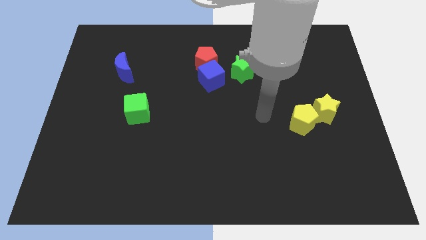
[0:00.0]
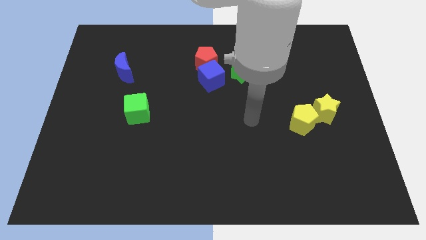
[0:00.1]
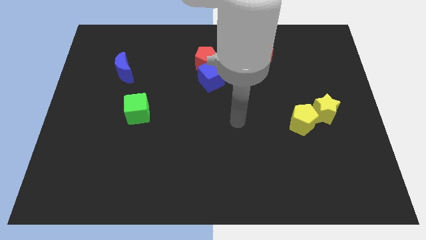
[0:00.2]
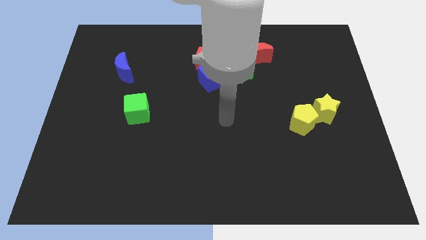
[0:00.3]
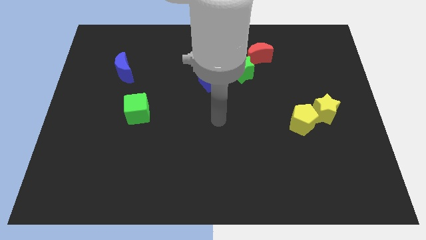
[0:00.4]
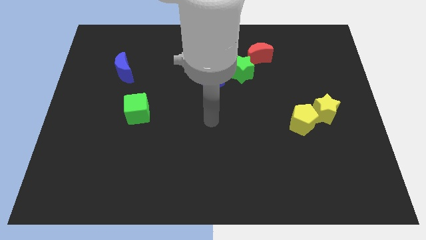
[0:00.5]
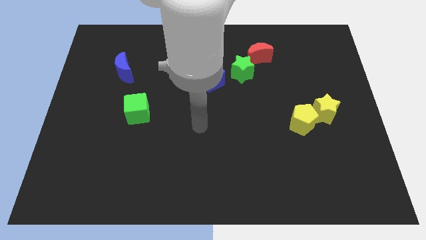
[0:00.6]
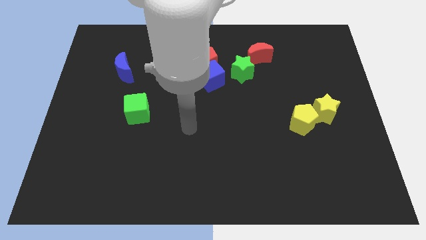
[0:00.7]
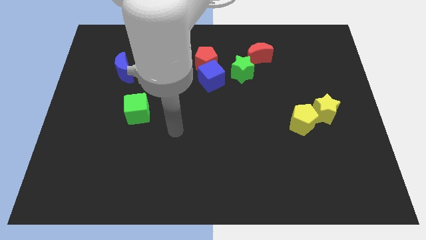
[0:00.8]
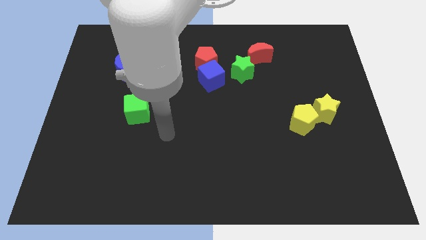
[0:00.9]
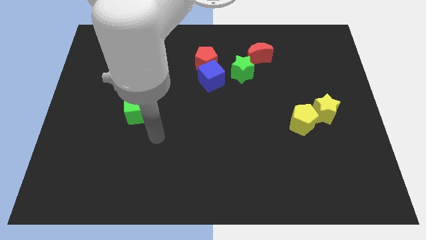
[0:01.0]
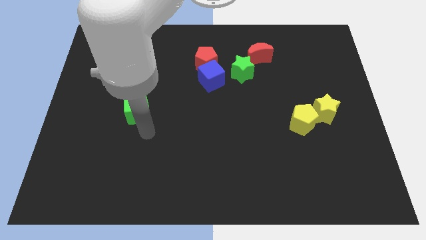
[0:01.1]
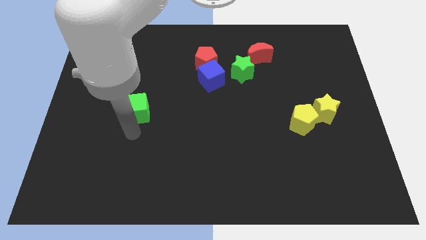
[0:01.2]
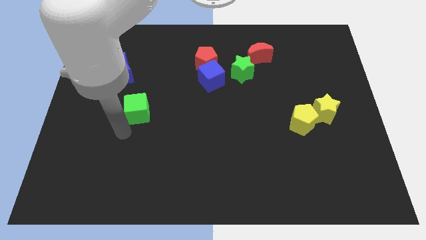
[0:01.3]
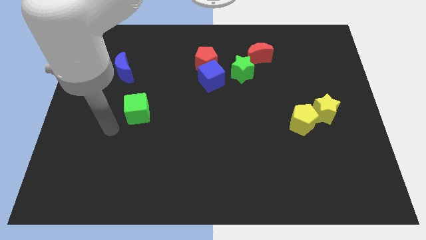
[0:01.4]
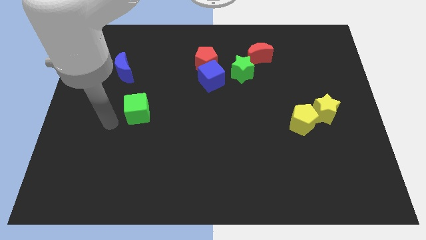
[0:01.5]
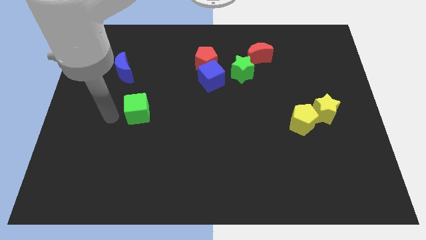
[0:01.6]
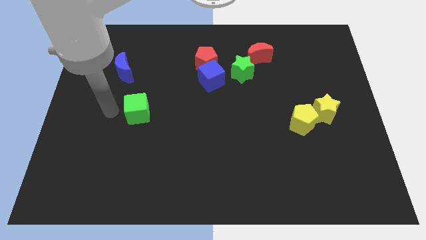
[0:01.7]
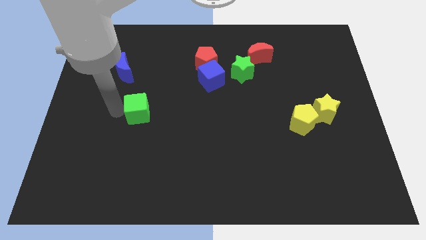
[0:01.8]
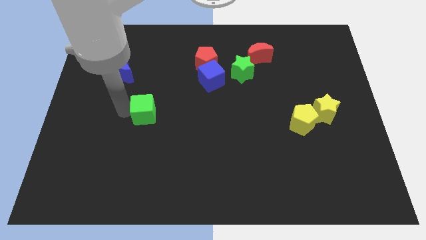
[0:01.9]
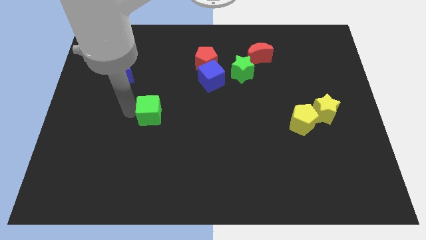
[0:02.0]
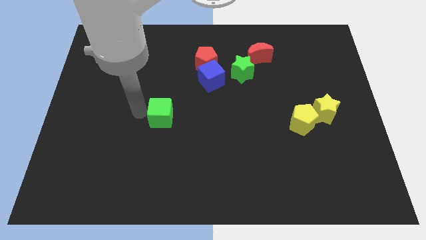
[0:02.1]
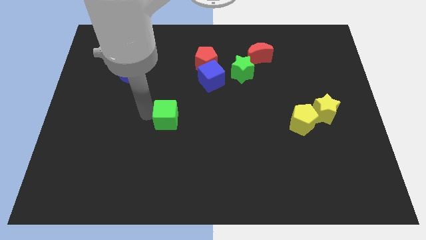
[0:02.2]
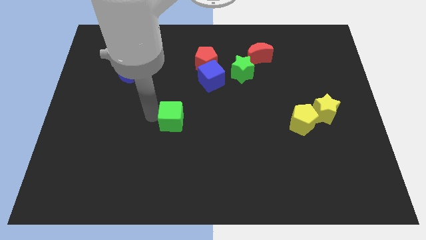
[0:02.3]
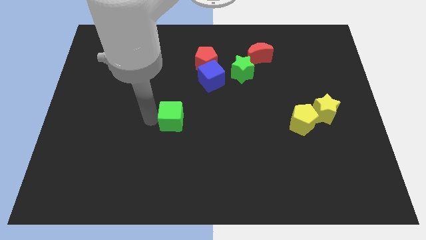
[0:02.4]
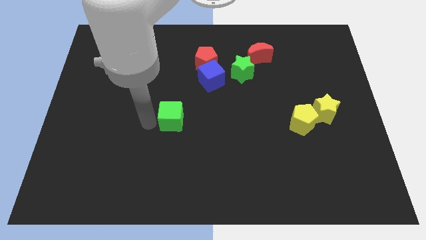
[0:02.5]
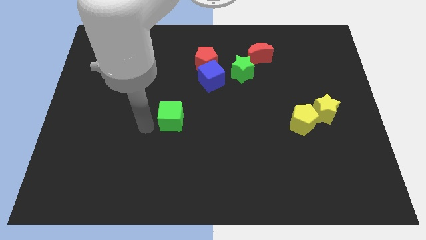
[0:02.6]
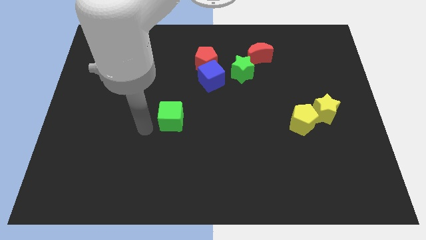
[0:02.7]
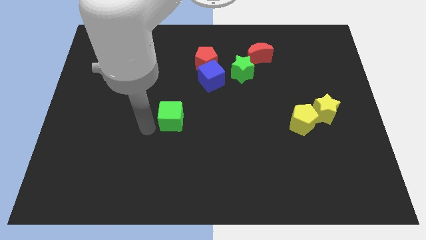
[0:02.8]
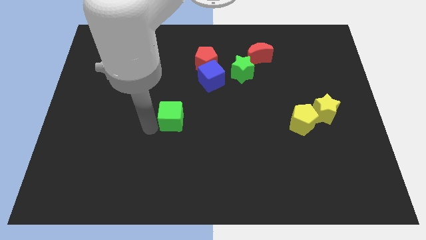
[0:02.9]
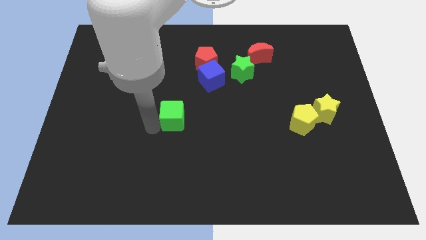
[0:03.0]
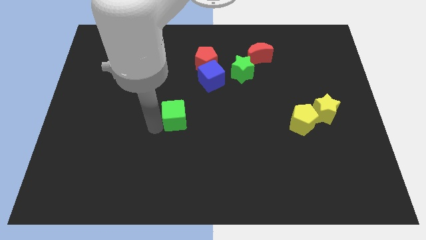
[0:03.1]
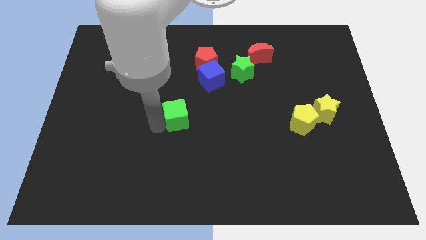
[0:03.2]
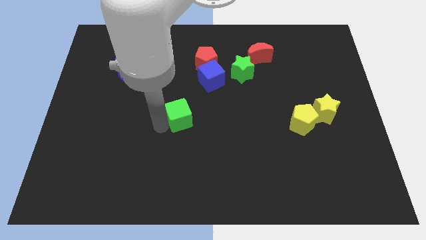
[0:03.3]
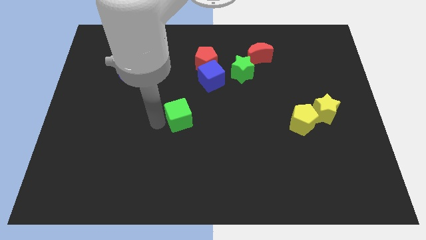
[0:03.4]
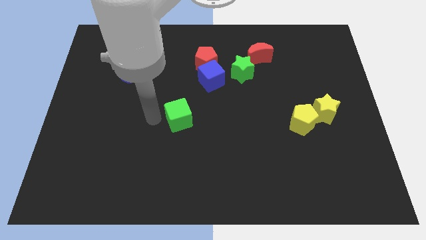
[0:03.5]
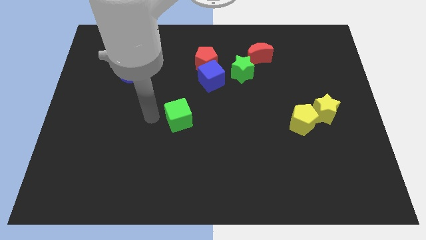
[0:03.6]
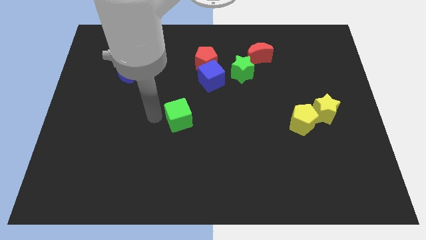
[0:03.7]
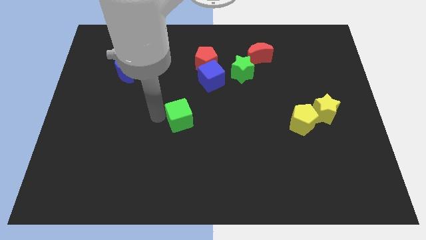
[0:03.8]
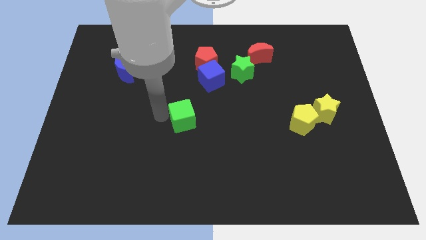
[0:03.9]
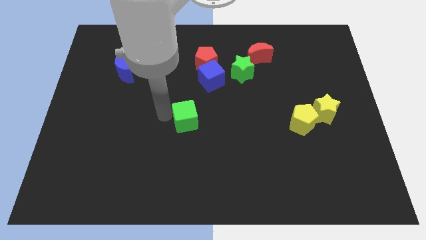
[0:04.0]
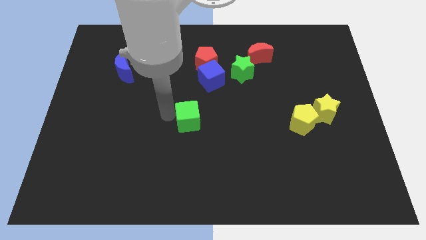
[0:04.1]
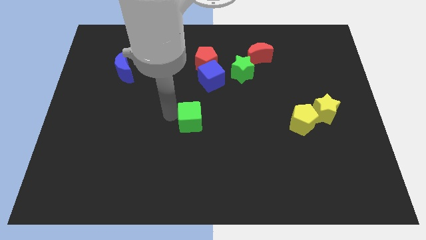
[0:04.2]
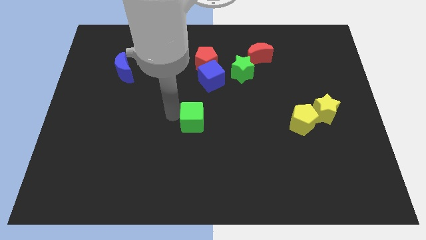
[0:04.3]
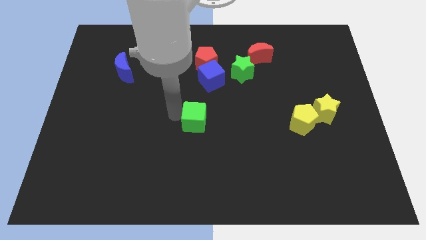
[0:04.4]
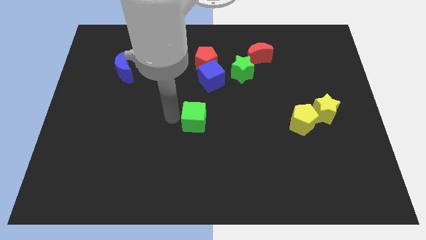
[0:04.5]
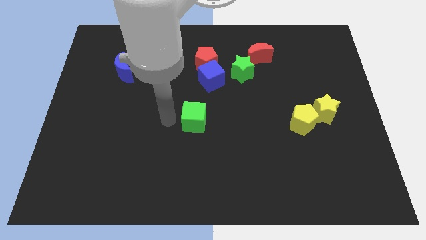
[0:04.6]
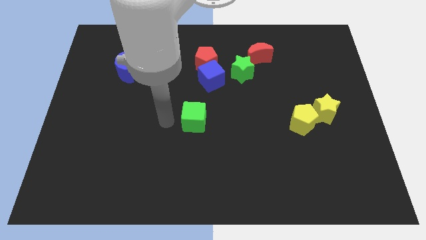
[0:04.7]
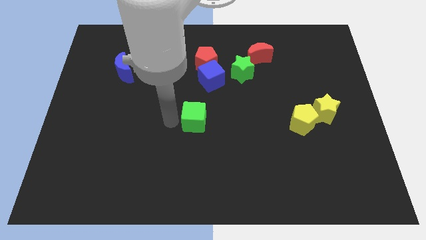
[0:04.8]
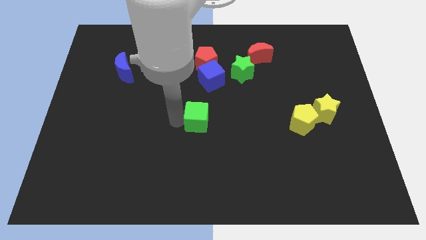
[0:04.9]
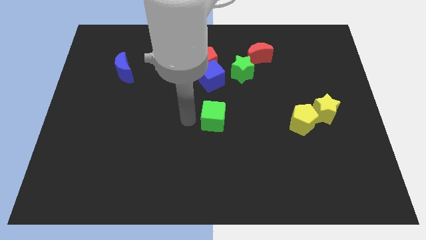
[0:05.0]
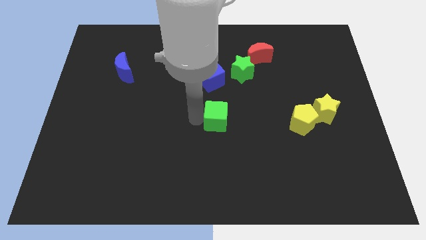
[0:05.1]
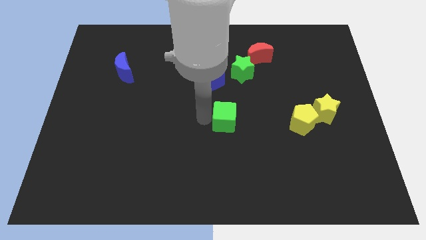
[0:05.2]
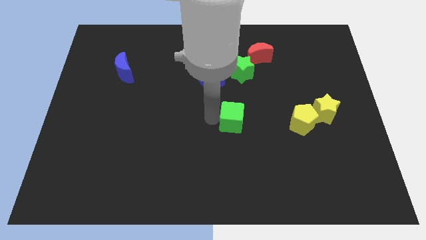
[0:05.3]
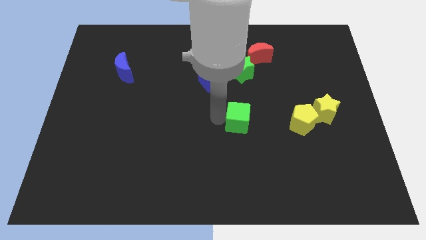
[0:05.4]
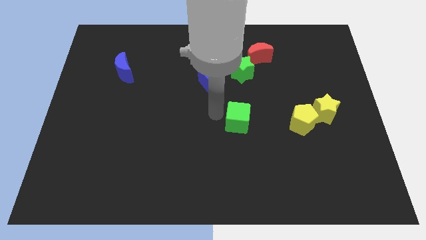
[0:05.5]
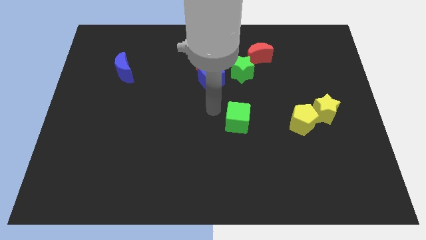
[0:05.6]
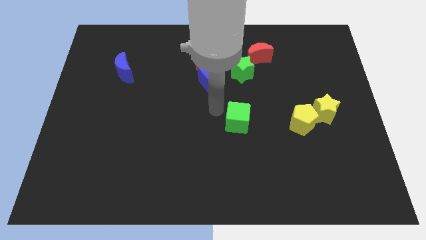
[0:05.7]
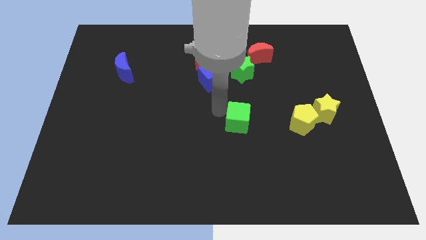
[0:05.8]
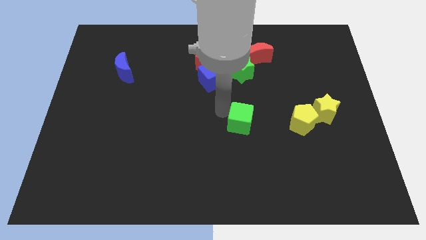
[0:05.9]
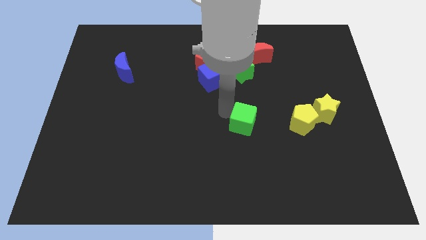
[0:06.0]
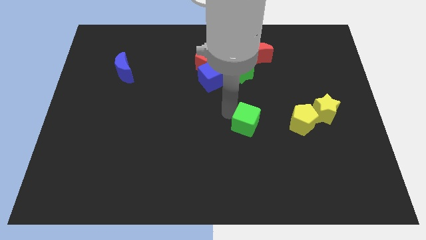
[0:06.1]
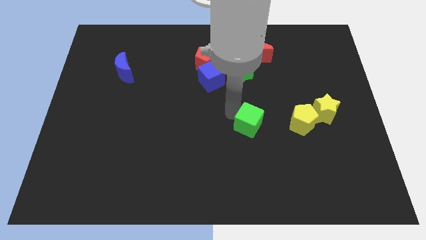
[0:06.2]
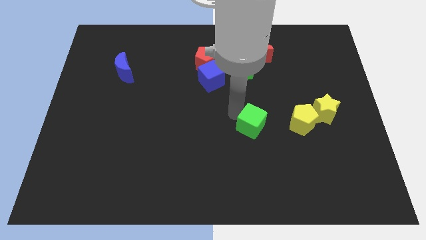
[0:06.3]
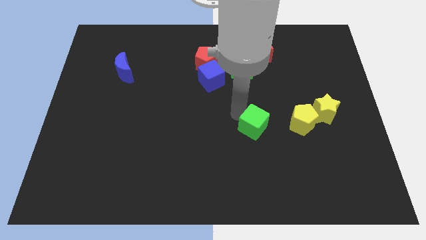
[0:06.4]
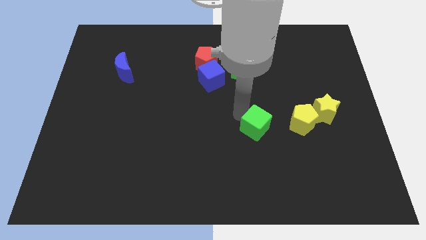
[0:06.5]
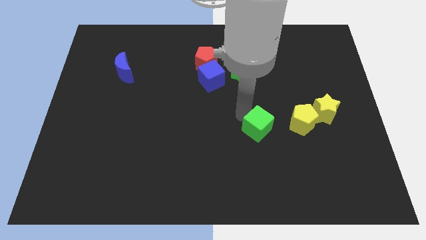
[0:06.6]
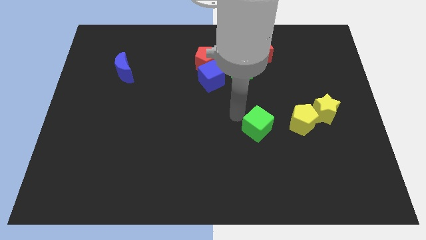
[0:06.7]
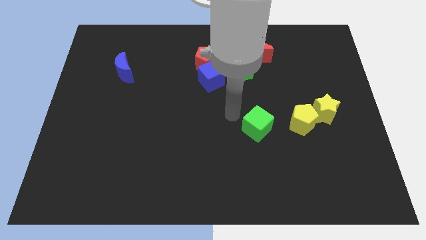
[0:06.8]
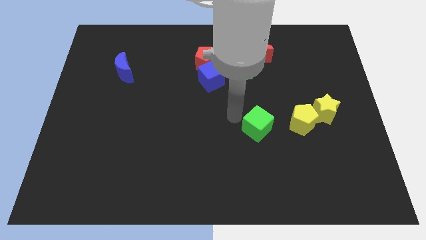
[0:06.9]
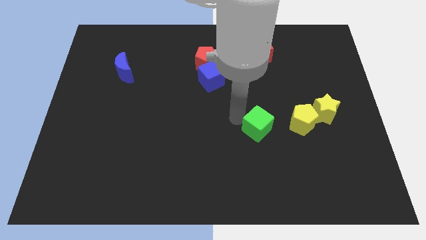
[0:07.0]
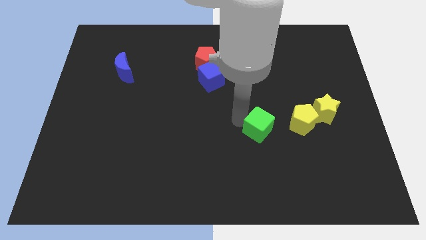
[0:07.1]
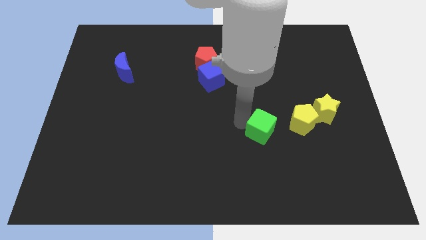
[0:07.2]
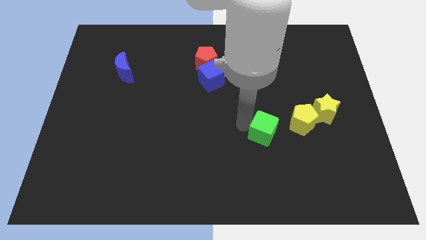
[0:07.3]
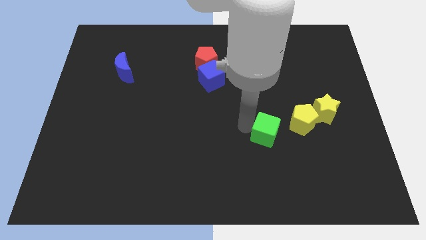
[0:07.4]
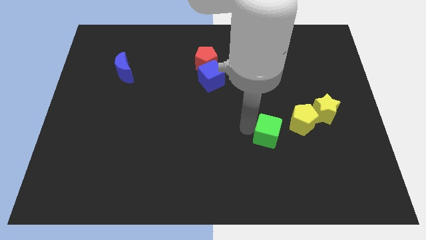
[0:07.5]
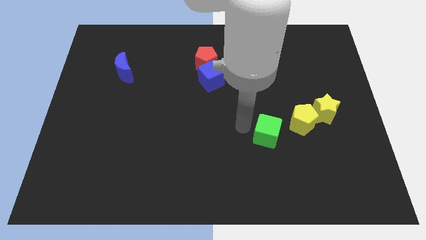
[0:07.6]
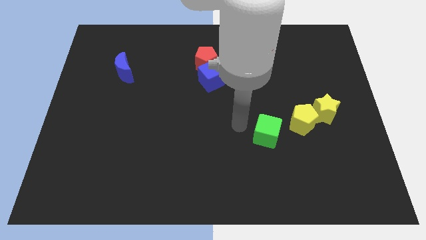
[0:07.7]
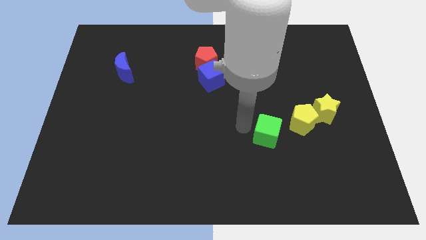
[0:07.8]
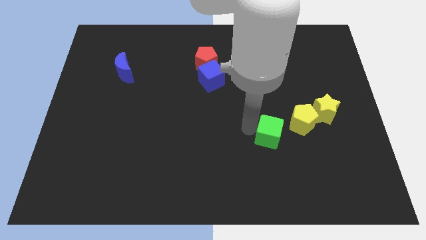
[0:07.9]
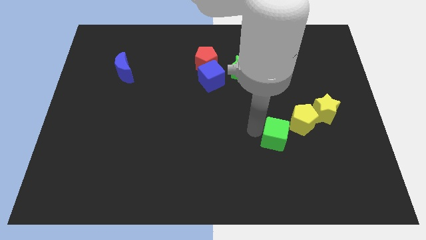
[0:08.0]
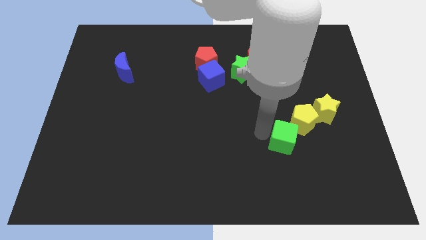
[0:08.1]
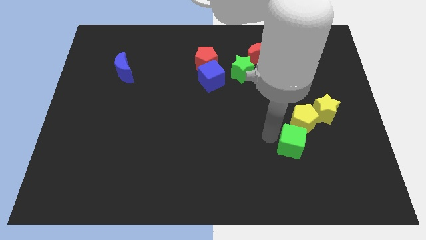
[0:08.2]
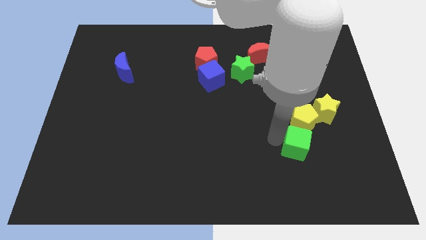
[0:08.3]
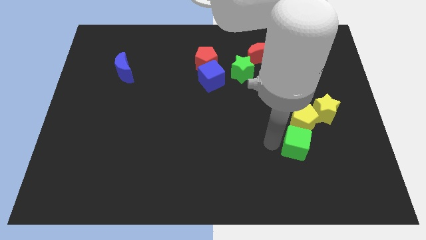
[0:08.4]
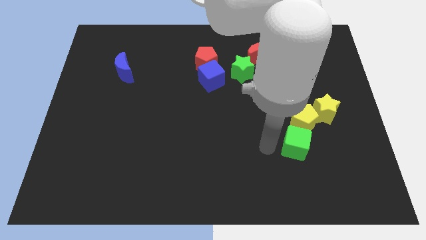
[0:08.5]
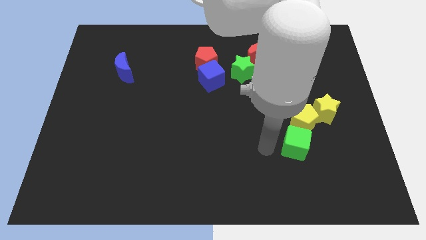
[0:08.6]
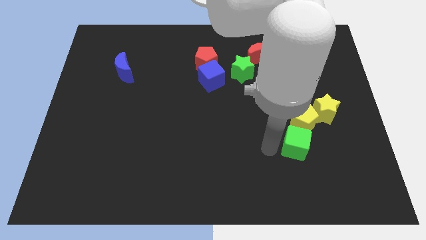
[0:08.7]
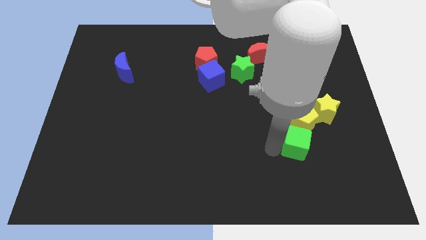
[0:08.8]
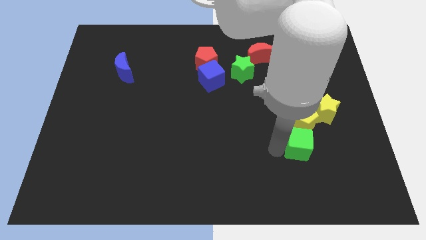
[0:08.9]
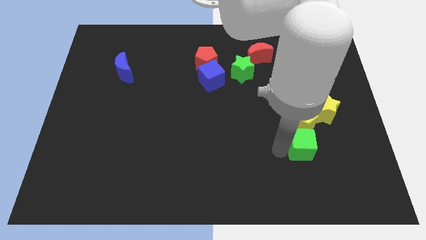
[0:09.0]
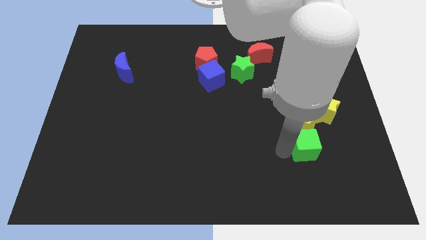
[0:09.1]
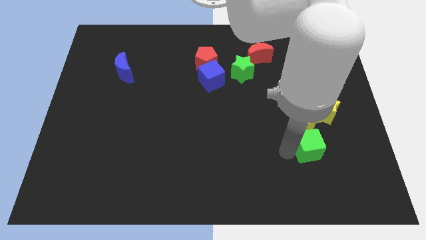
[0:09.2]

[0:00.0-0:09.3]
put the green cube to the bottom right of the yellow pentagon
